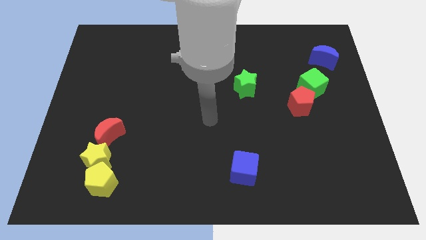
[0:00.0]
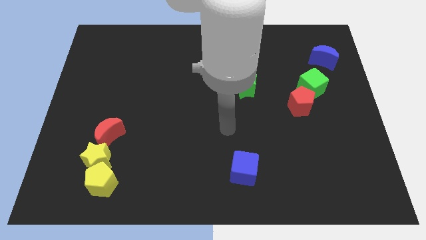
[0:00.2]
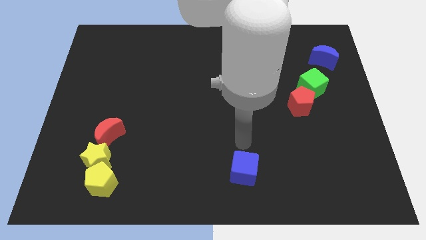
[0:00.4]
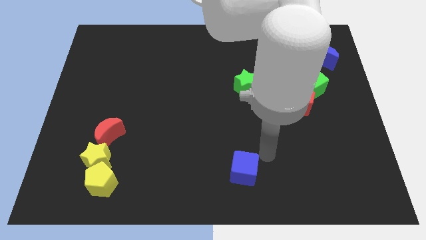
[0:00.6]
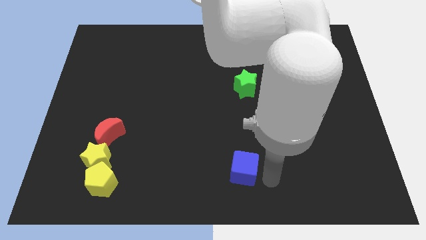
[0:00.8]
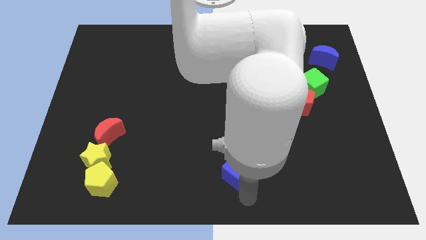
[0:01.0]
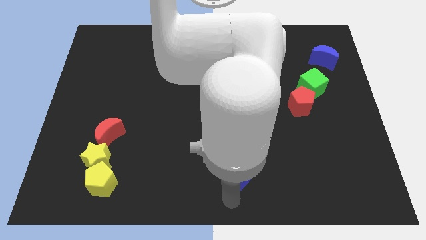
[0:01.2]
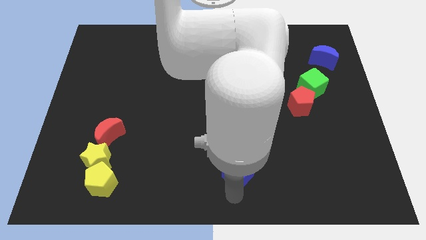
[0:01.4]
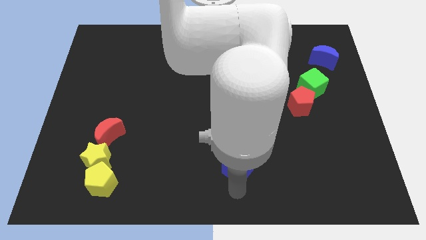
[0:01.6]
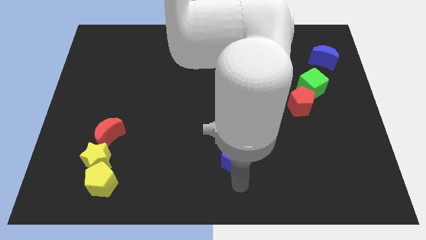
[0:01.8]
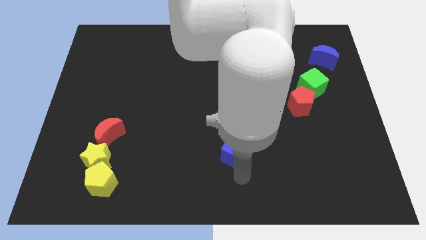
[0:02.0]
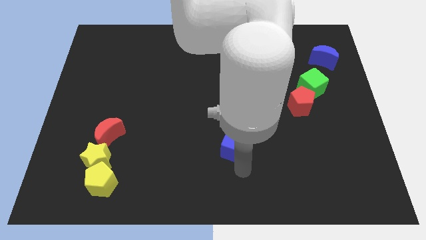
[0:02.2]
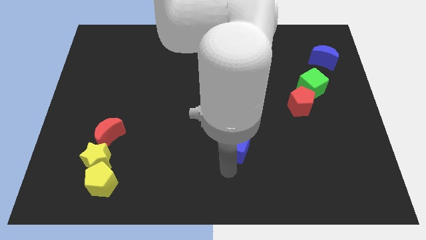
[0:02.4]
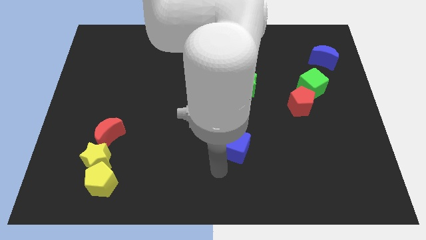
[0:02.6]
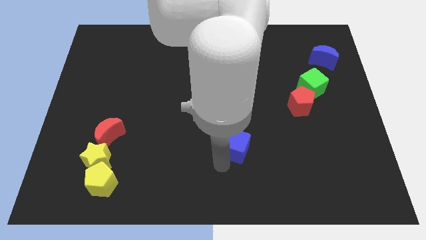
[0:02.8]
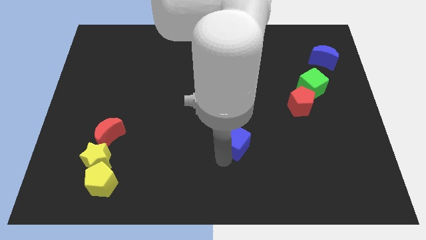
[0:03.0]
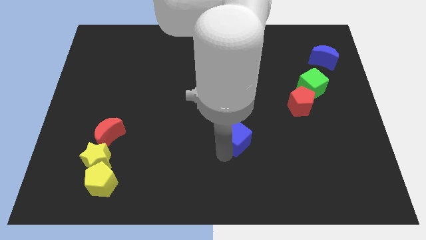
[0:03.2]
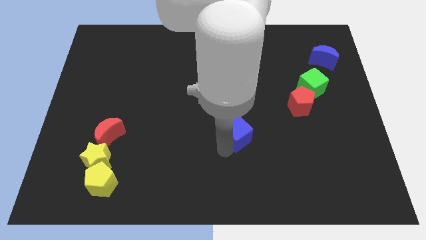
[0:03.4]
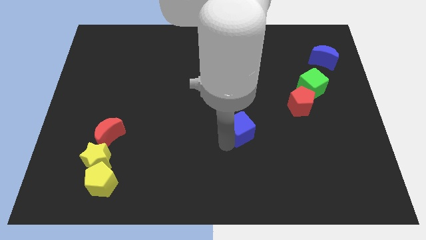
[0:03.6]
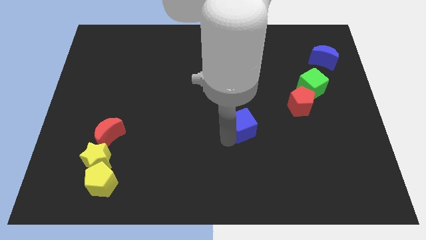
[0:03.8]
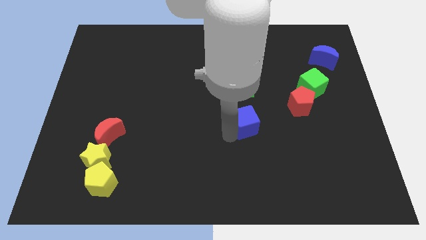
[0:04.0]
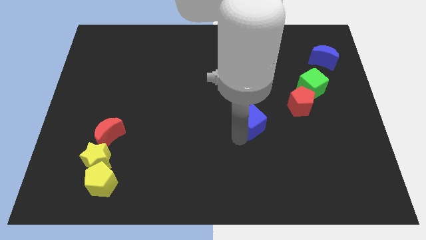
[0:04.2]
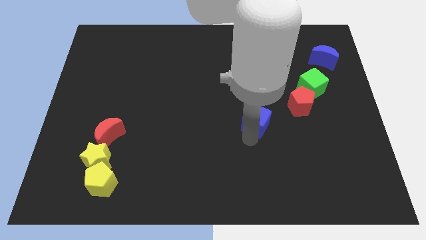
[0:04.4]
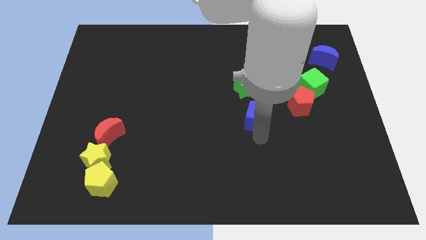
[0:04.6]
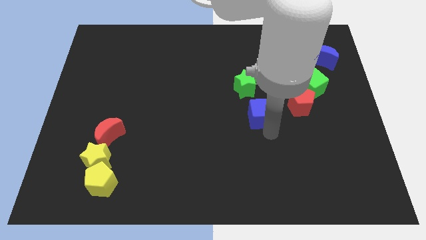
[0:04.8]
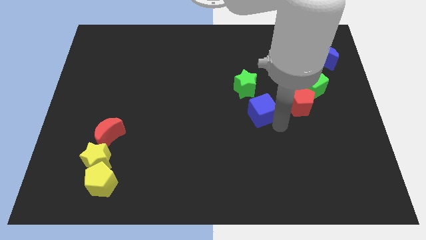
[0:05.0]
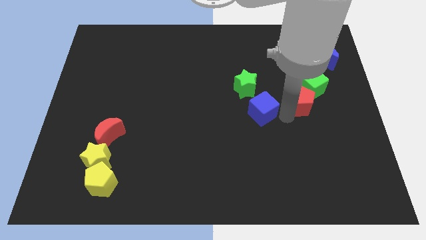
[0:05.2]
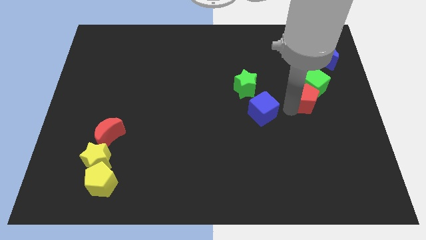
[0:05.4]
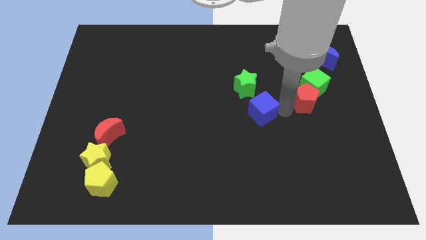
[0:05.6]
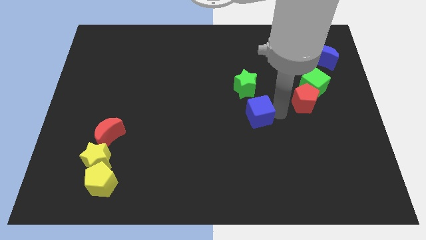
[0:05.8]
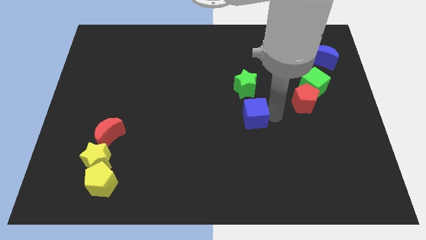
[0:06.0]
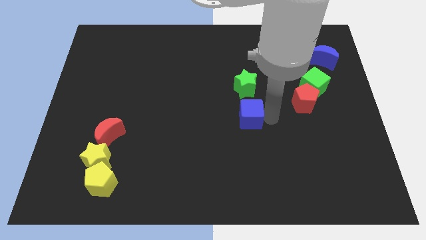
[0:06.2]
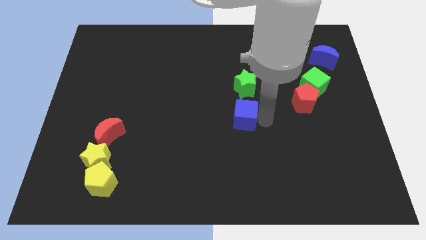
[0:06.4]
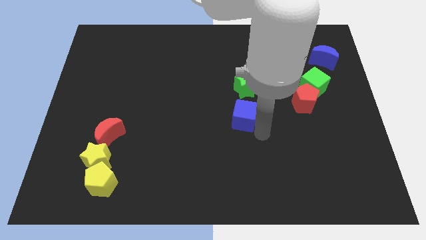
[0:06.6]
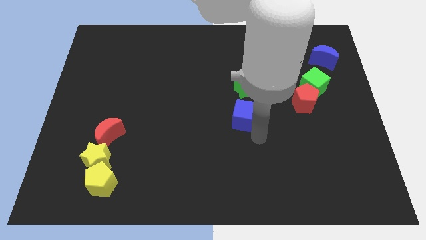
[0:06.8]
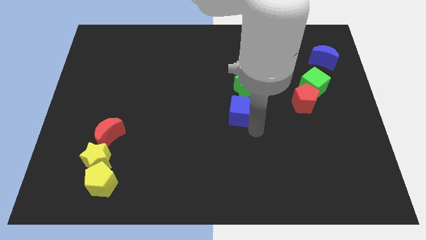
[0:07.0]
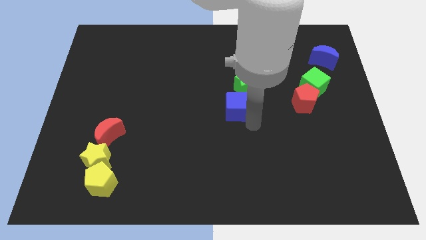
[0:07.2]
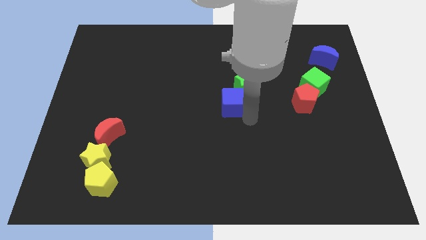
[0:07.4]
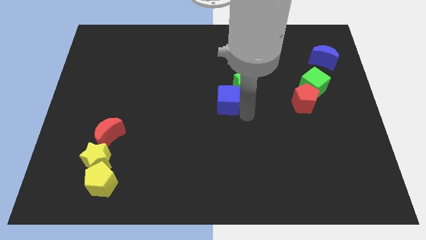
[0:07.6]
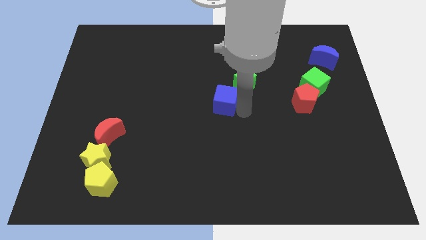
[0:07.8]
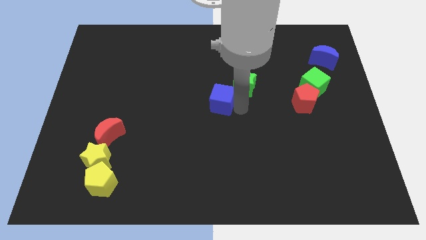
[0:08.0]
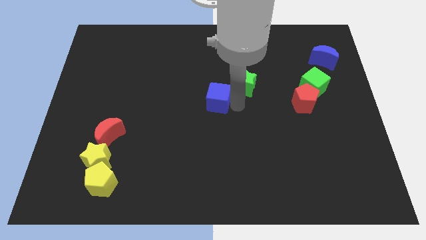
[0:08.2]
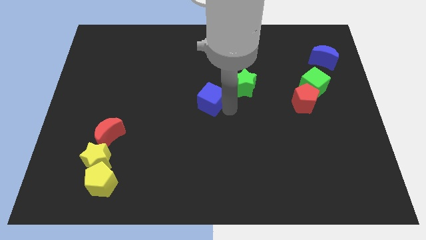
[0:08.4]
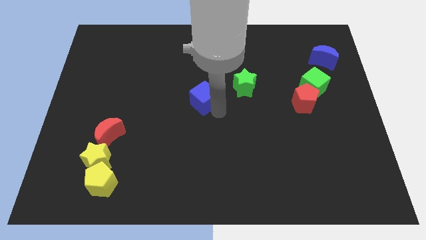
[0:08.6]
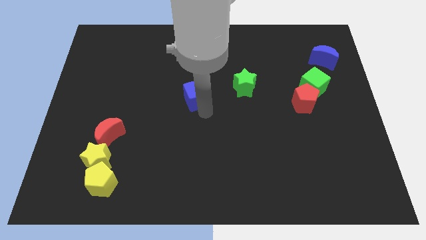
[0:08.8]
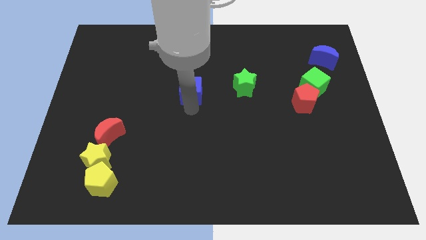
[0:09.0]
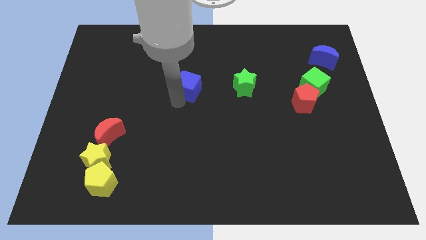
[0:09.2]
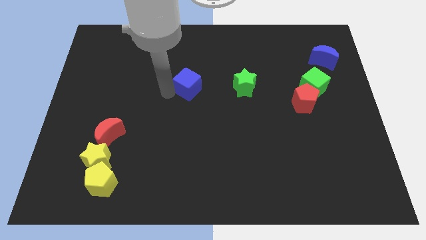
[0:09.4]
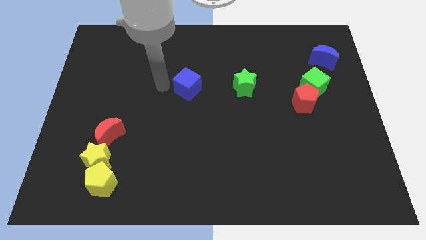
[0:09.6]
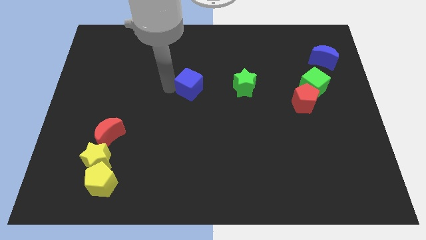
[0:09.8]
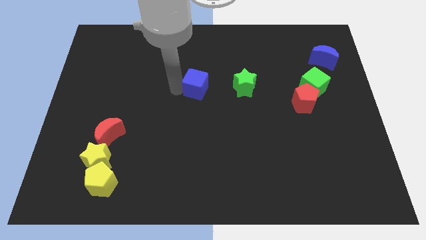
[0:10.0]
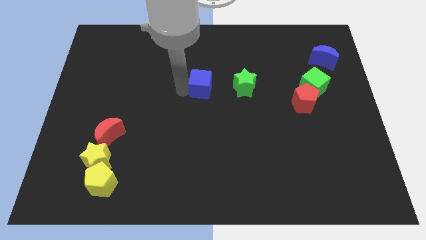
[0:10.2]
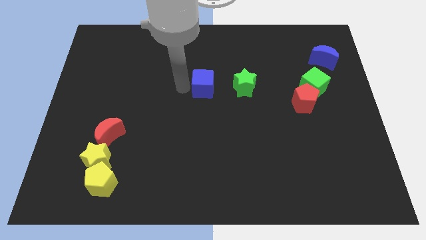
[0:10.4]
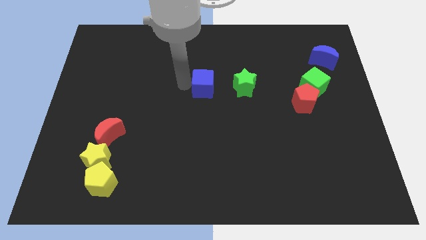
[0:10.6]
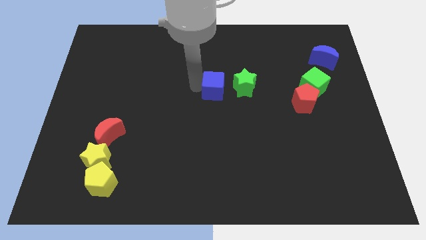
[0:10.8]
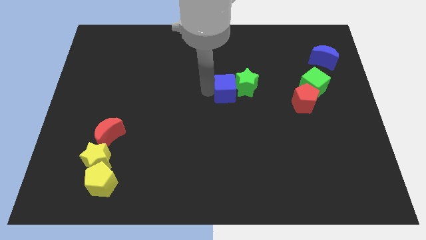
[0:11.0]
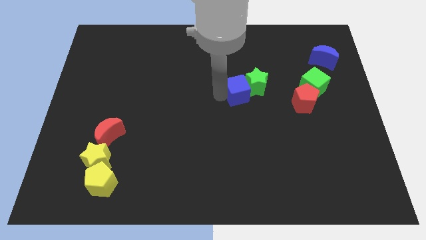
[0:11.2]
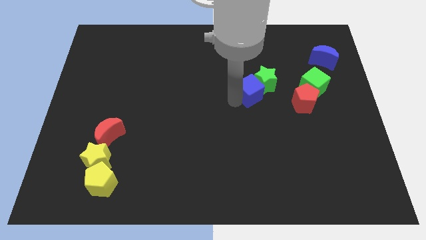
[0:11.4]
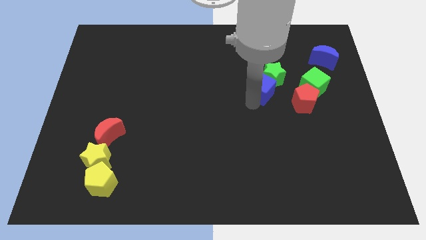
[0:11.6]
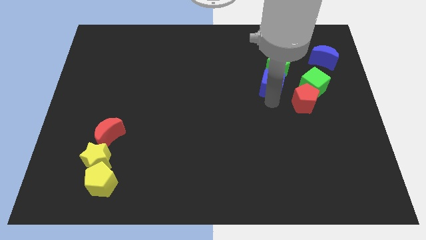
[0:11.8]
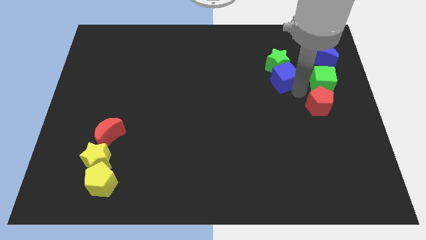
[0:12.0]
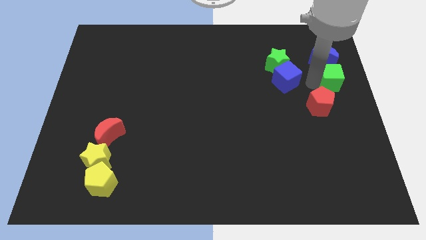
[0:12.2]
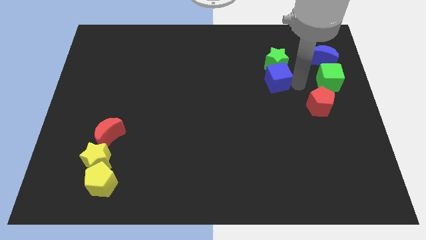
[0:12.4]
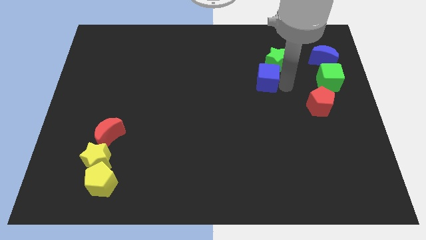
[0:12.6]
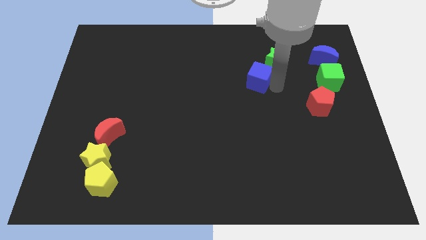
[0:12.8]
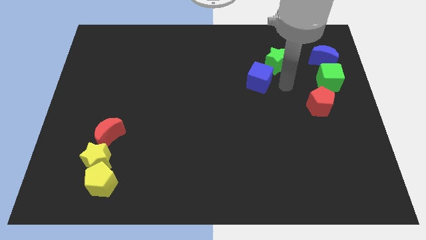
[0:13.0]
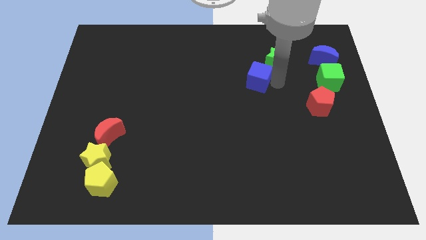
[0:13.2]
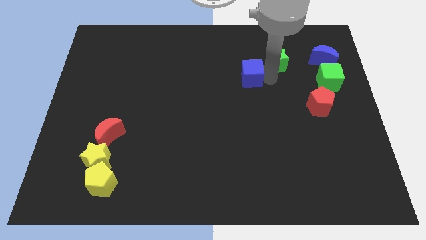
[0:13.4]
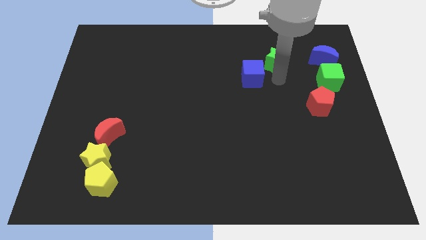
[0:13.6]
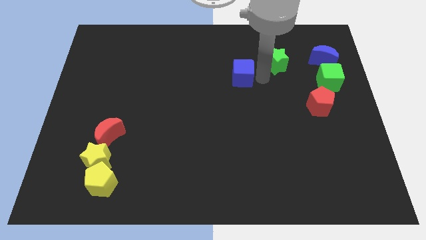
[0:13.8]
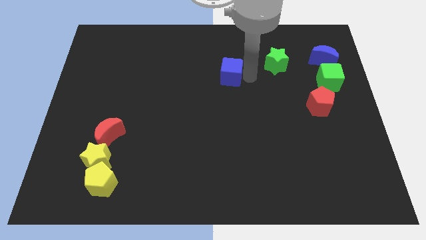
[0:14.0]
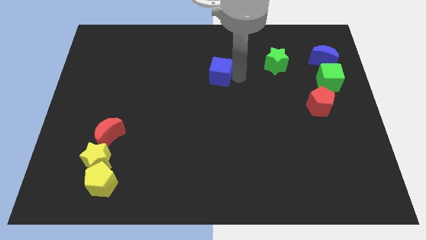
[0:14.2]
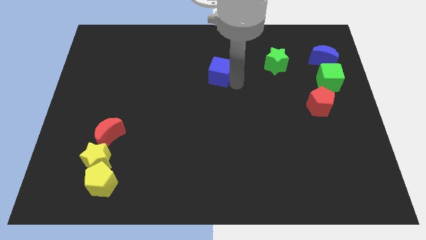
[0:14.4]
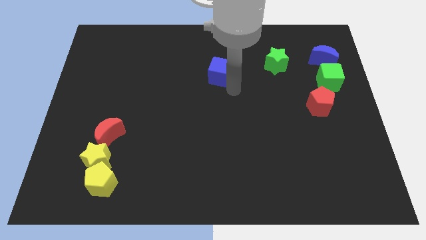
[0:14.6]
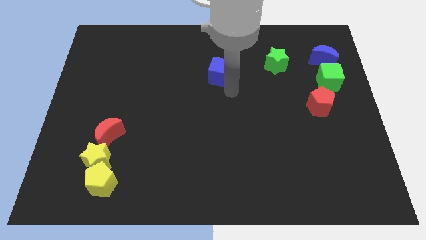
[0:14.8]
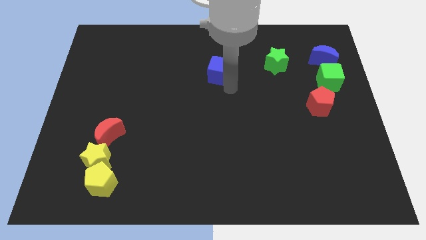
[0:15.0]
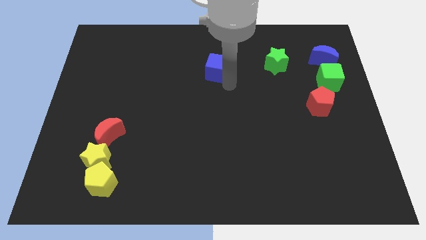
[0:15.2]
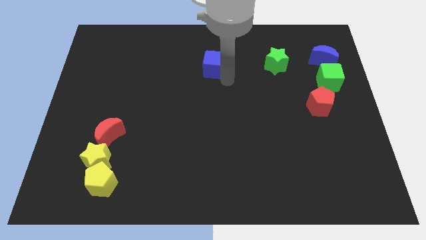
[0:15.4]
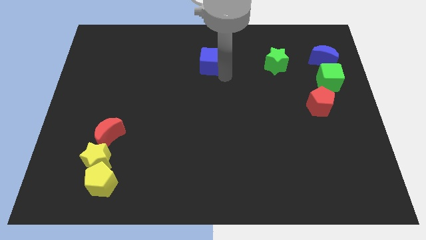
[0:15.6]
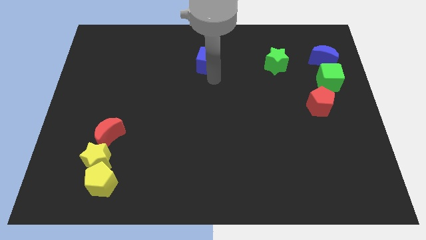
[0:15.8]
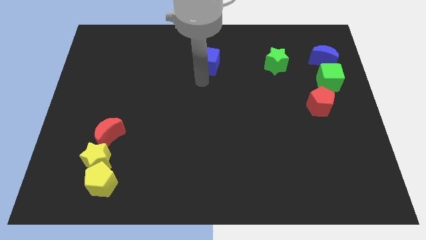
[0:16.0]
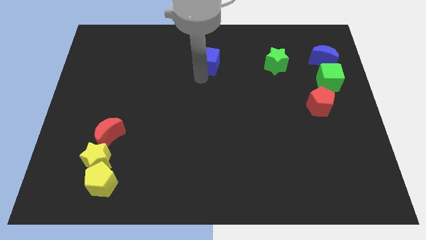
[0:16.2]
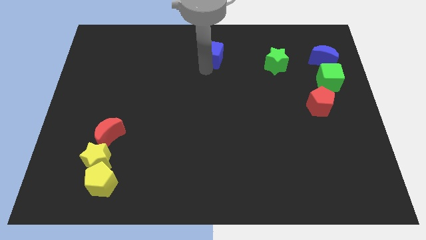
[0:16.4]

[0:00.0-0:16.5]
push the blue cube to the towards your base

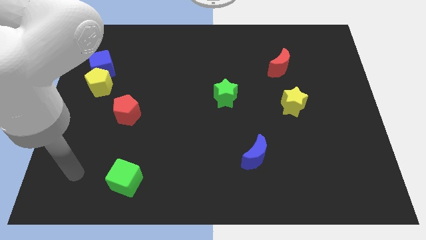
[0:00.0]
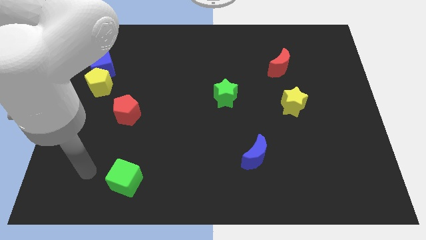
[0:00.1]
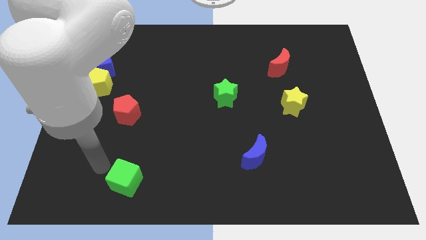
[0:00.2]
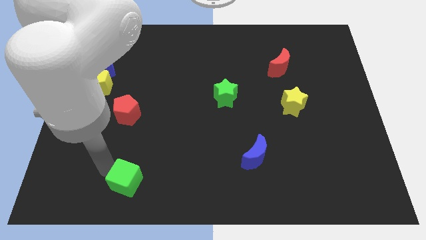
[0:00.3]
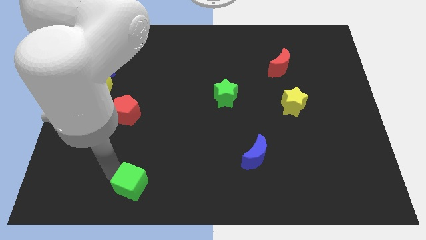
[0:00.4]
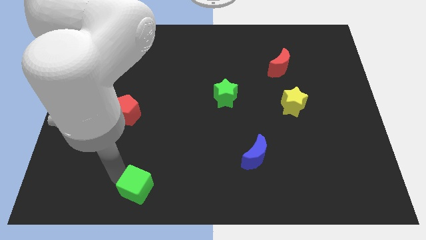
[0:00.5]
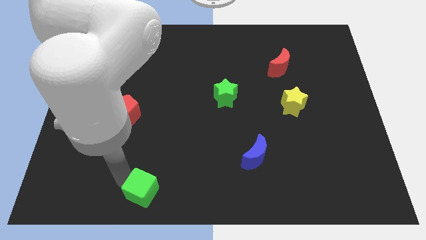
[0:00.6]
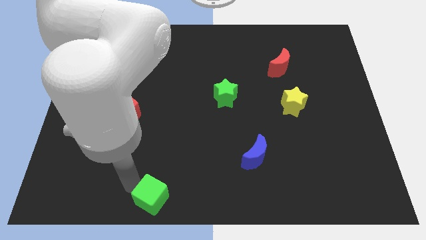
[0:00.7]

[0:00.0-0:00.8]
slide the green cube to the bottom side
